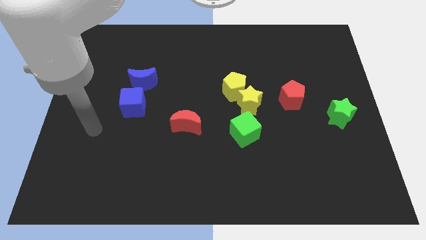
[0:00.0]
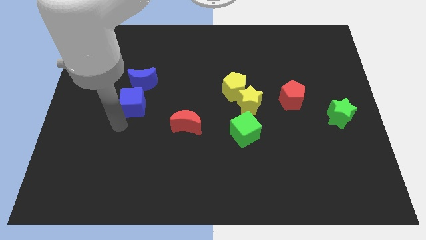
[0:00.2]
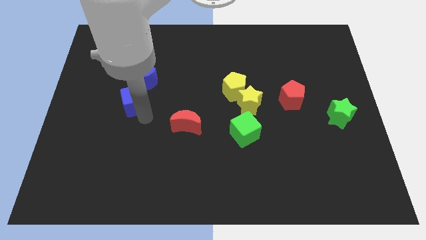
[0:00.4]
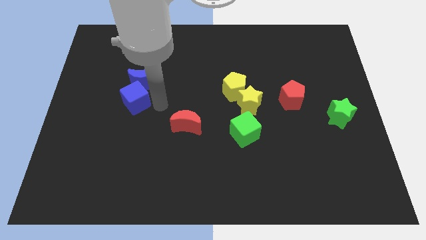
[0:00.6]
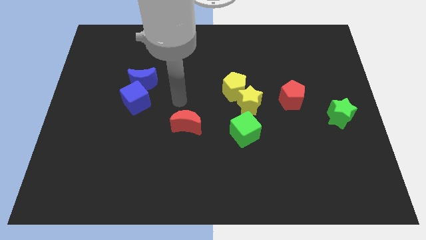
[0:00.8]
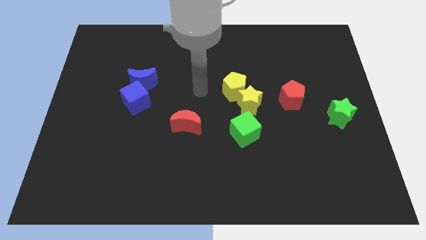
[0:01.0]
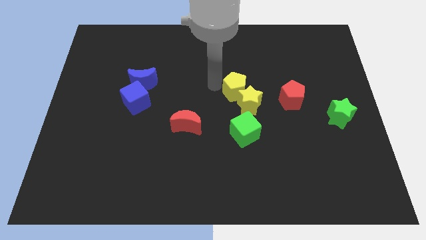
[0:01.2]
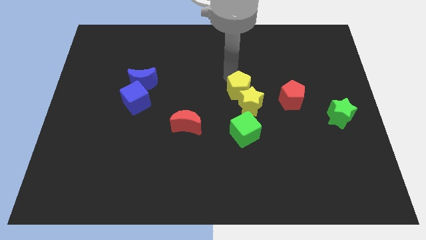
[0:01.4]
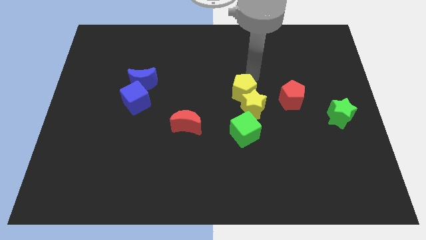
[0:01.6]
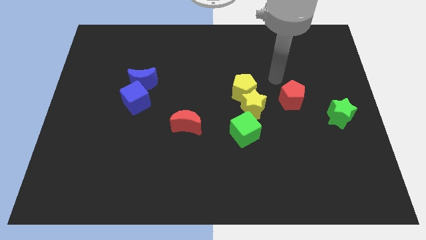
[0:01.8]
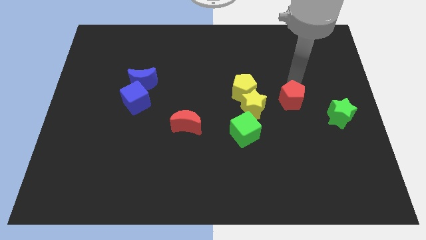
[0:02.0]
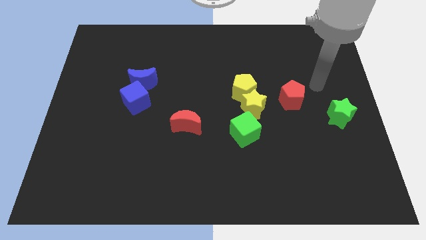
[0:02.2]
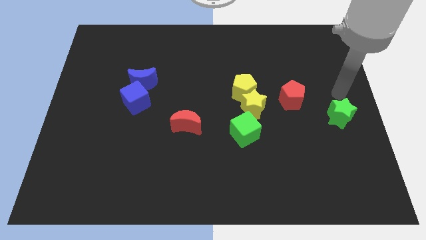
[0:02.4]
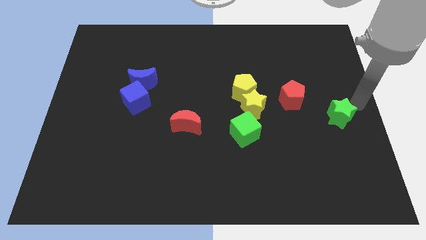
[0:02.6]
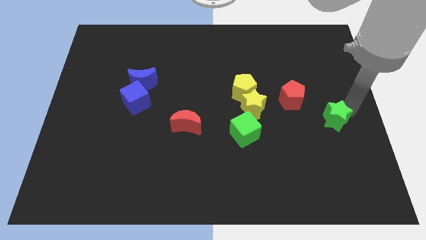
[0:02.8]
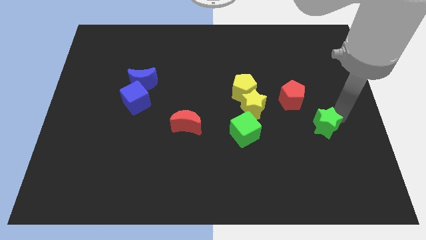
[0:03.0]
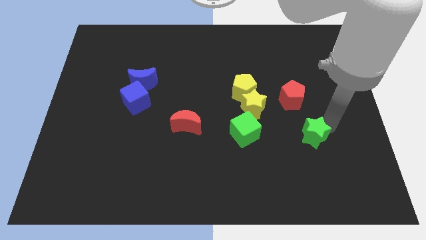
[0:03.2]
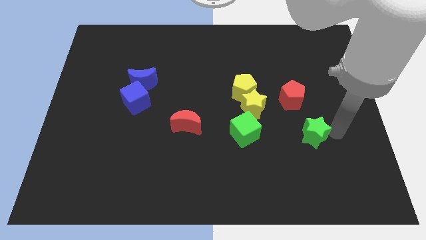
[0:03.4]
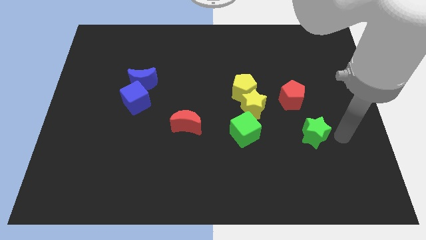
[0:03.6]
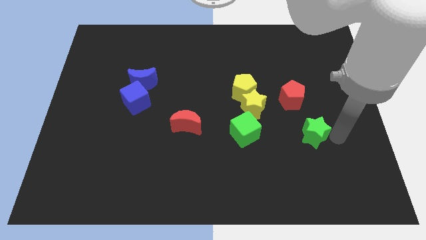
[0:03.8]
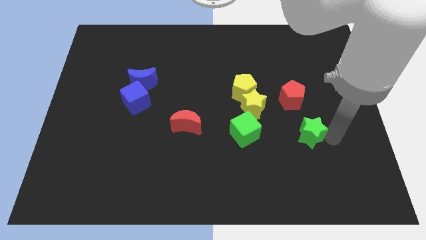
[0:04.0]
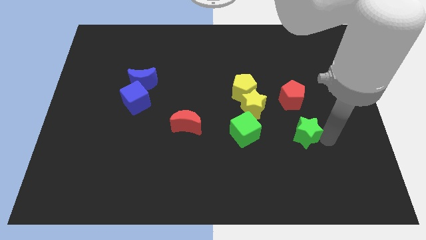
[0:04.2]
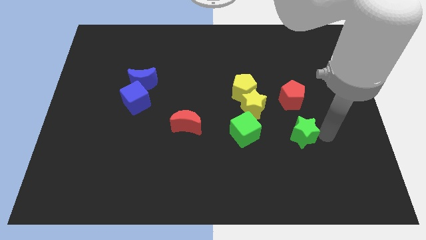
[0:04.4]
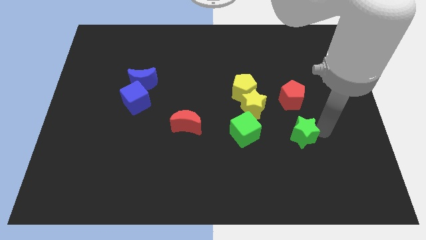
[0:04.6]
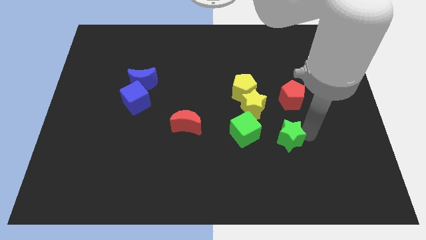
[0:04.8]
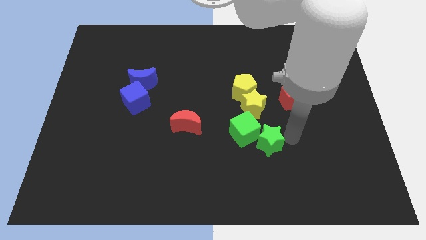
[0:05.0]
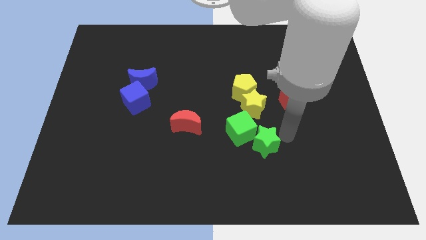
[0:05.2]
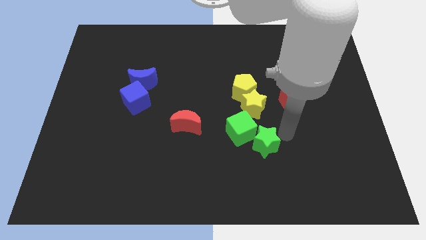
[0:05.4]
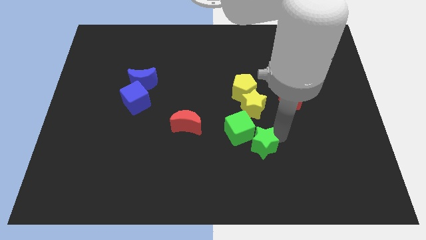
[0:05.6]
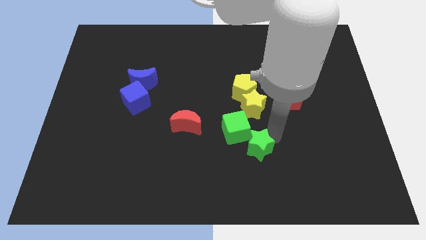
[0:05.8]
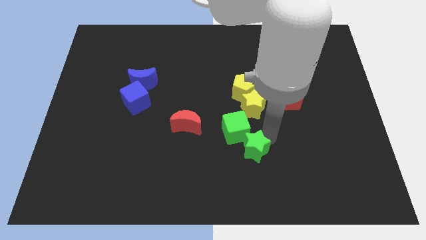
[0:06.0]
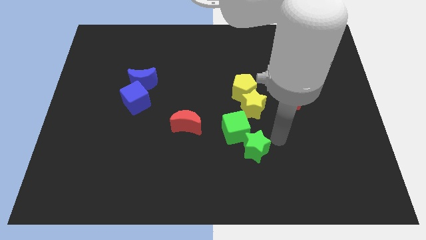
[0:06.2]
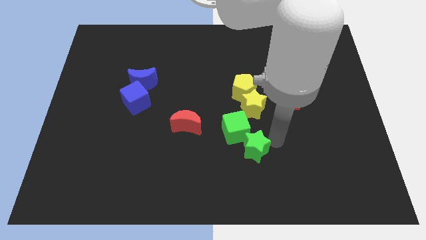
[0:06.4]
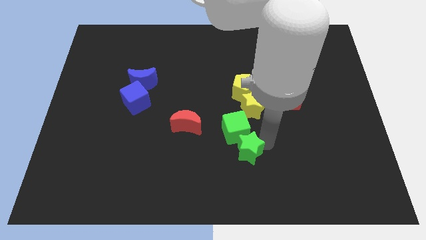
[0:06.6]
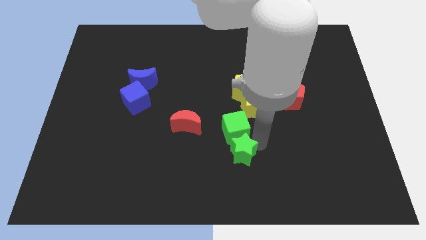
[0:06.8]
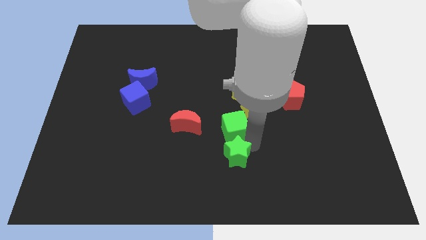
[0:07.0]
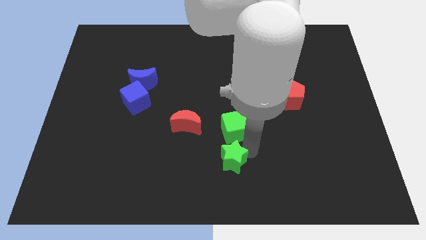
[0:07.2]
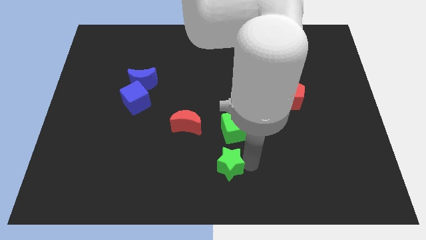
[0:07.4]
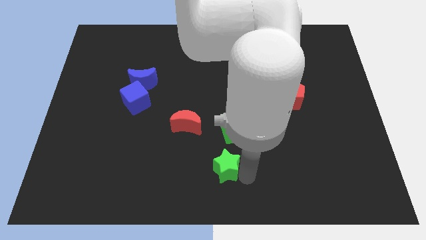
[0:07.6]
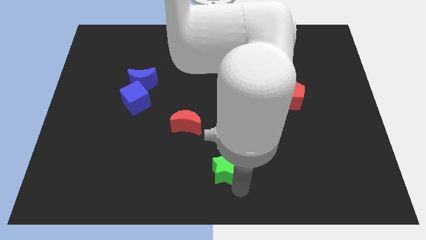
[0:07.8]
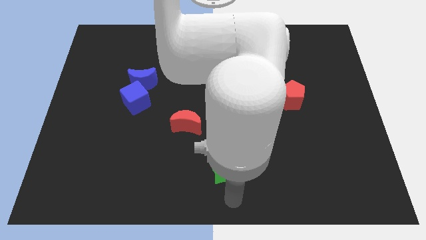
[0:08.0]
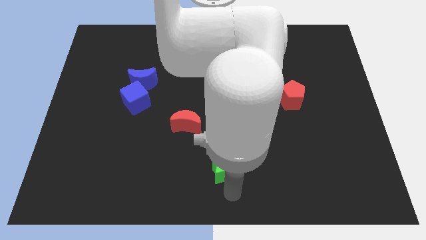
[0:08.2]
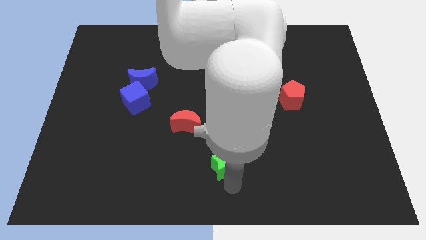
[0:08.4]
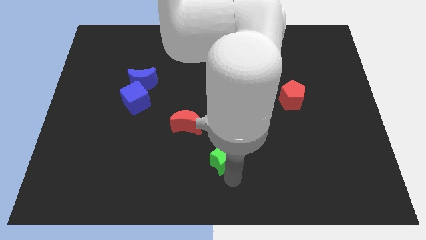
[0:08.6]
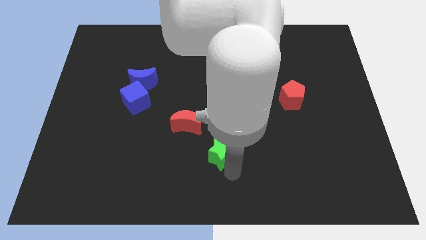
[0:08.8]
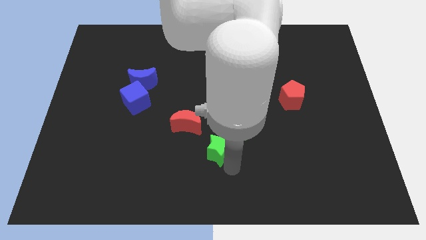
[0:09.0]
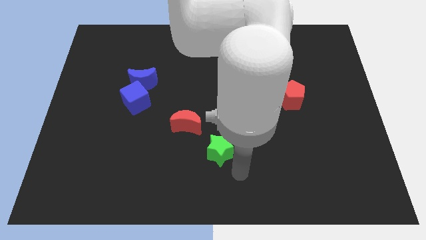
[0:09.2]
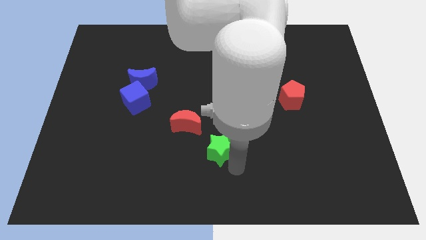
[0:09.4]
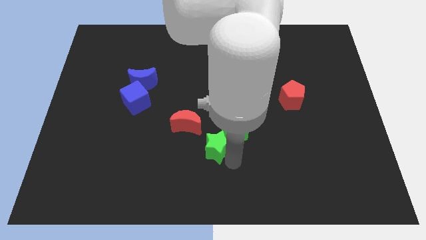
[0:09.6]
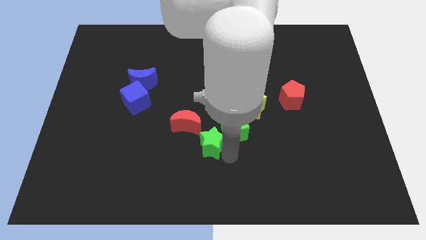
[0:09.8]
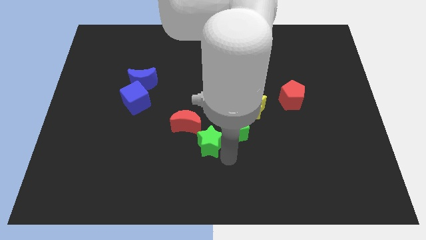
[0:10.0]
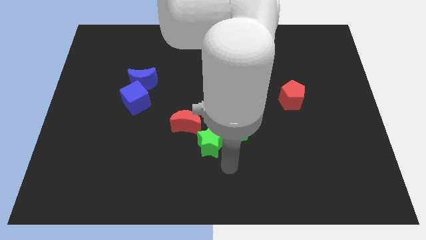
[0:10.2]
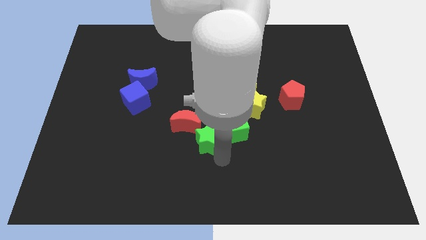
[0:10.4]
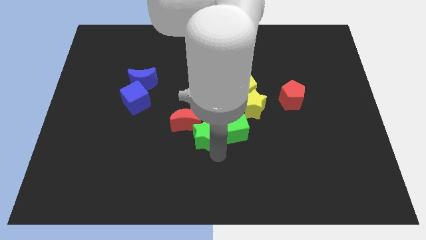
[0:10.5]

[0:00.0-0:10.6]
move the green star towards the red moon

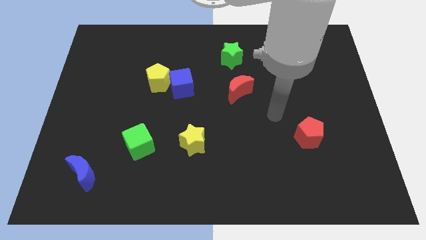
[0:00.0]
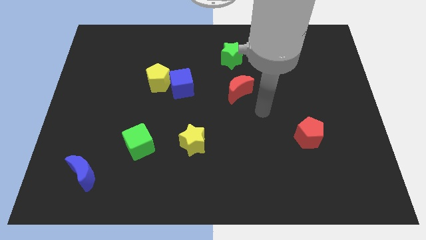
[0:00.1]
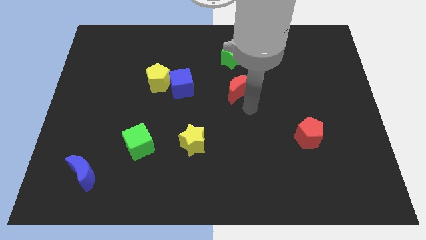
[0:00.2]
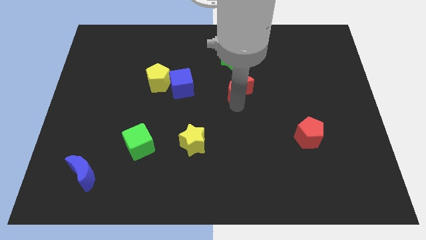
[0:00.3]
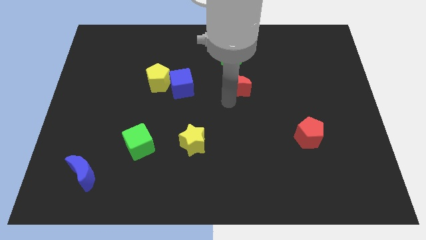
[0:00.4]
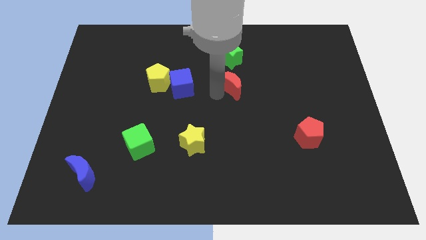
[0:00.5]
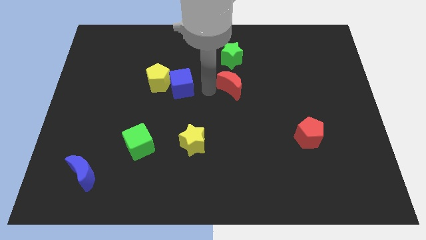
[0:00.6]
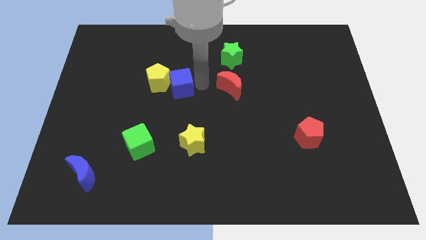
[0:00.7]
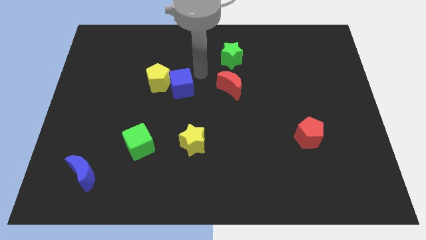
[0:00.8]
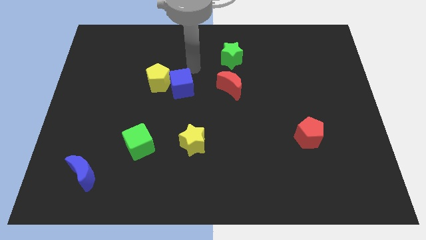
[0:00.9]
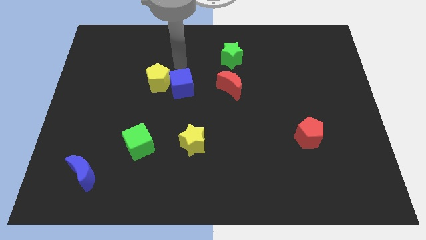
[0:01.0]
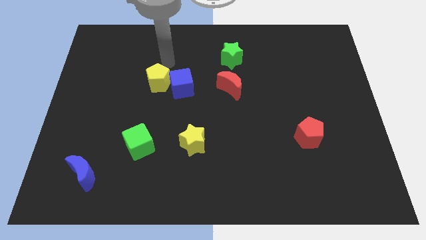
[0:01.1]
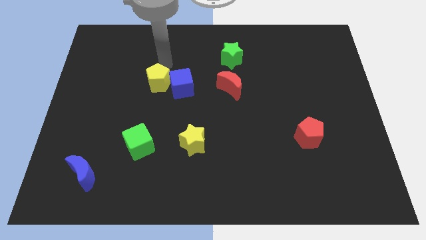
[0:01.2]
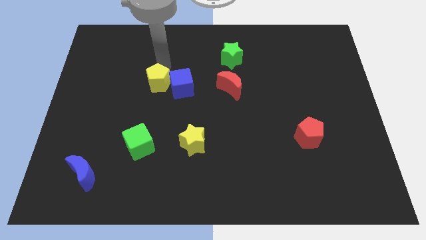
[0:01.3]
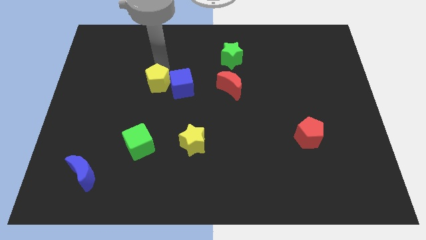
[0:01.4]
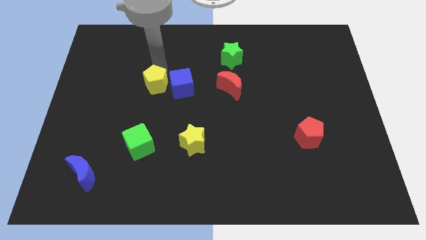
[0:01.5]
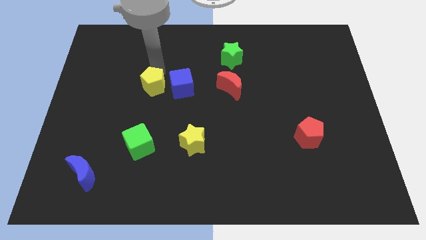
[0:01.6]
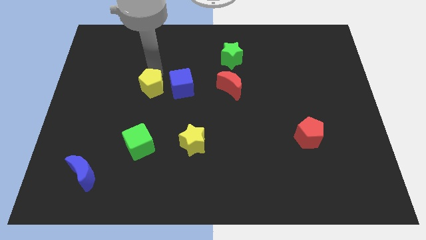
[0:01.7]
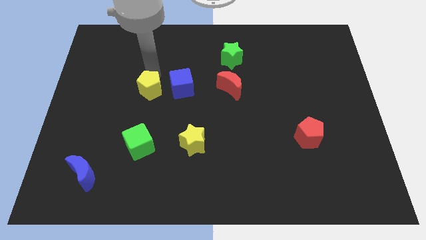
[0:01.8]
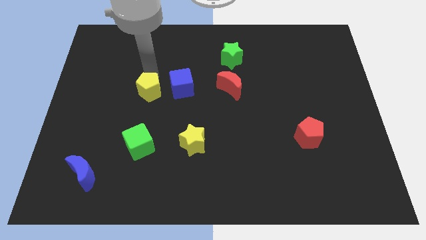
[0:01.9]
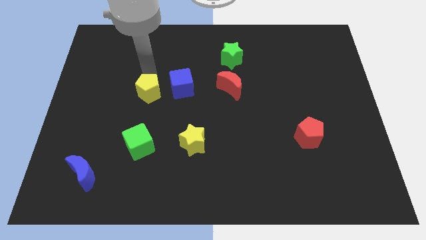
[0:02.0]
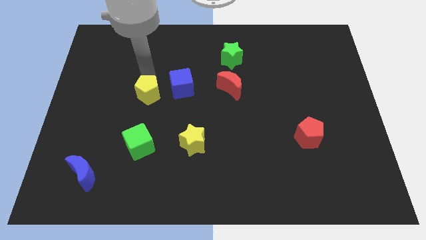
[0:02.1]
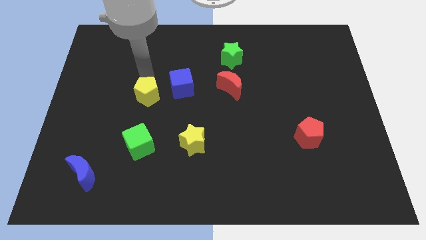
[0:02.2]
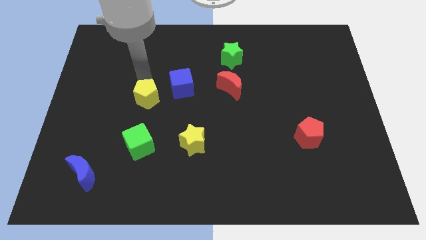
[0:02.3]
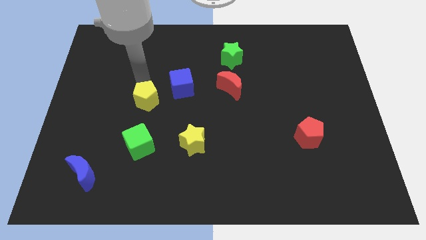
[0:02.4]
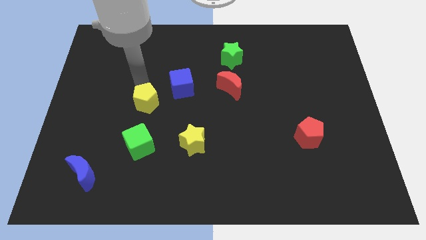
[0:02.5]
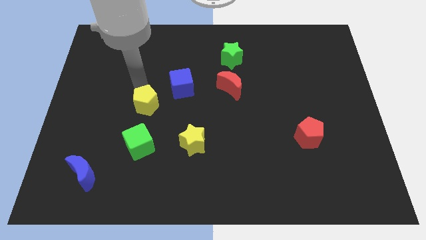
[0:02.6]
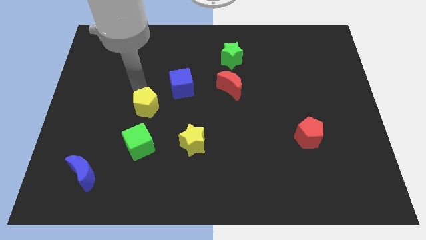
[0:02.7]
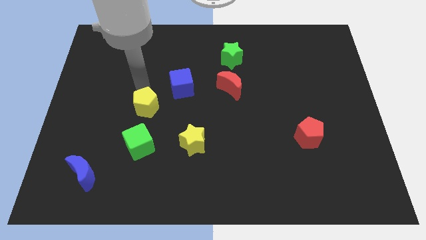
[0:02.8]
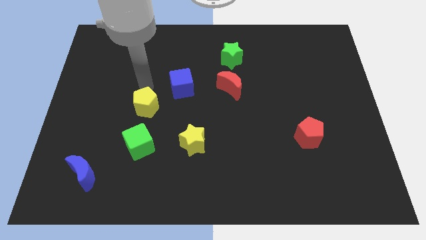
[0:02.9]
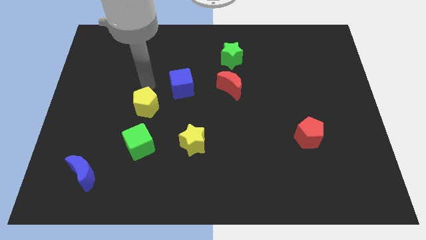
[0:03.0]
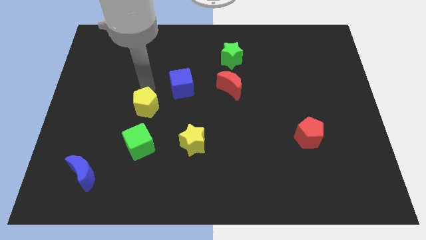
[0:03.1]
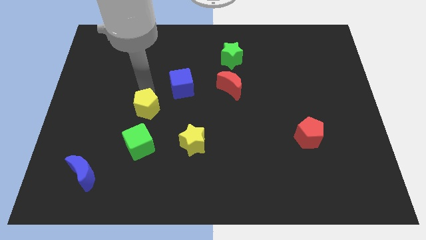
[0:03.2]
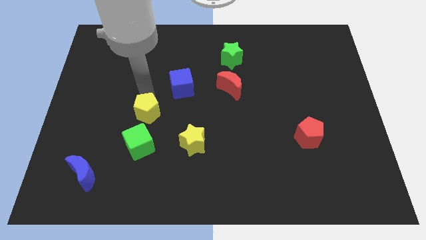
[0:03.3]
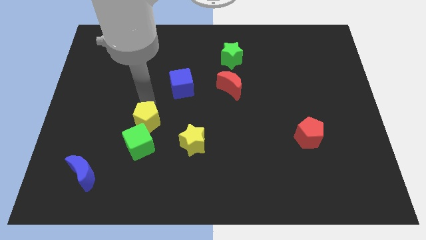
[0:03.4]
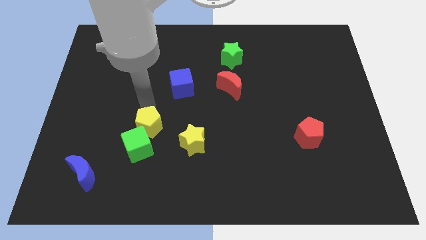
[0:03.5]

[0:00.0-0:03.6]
move the yellow pentagon to the green cube
